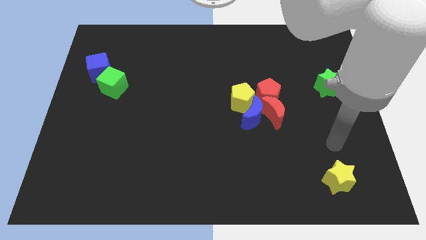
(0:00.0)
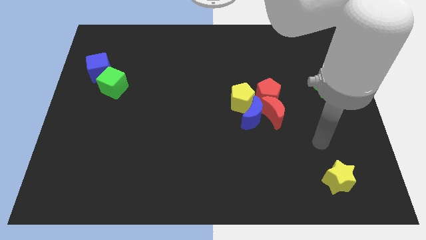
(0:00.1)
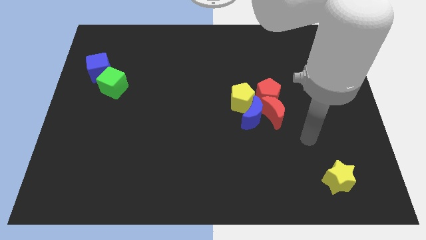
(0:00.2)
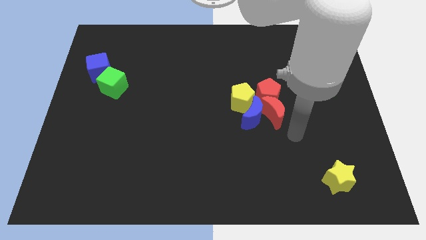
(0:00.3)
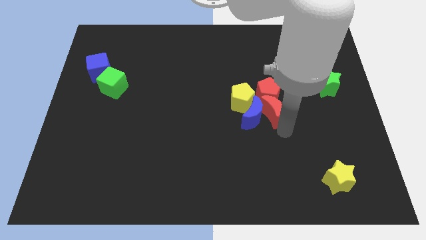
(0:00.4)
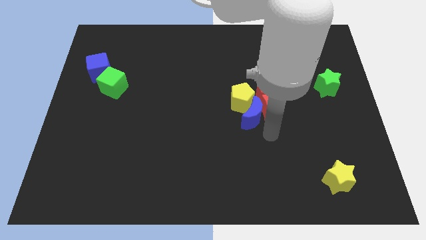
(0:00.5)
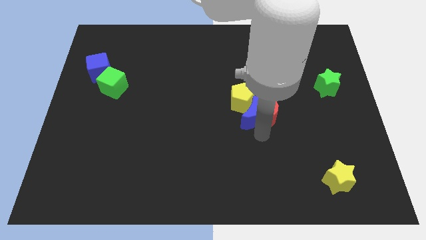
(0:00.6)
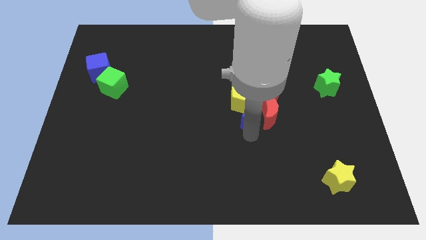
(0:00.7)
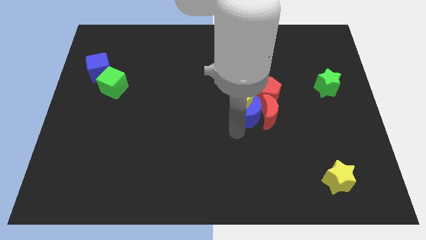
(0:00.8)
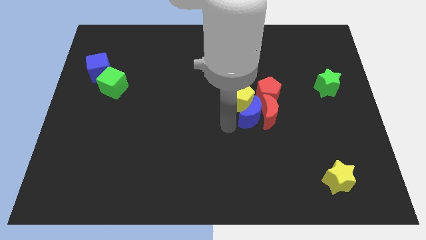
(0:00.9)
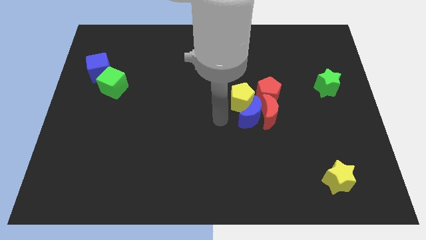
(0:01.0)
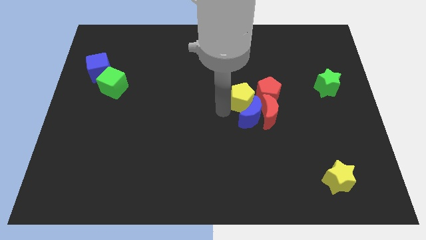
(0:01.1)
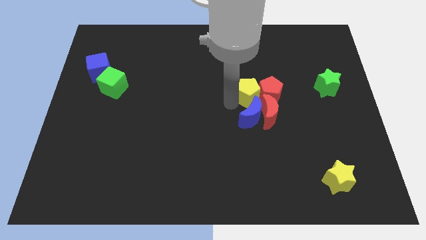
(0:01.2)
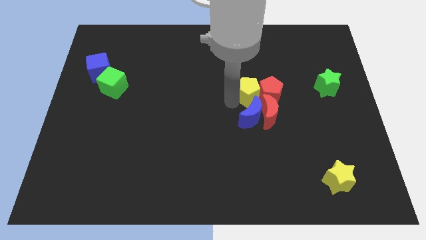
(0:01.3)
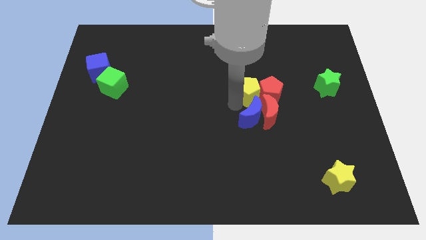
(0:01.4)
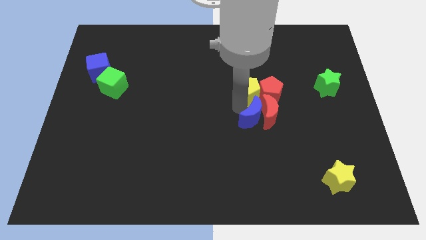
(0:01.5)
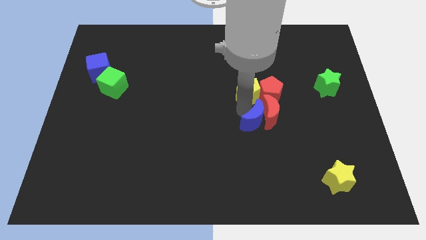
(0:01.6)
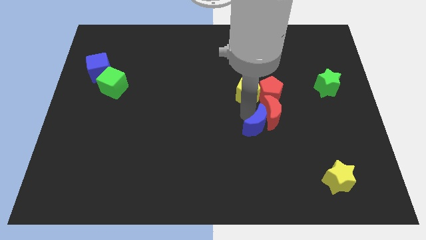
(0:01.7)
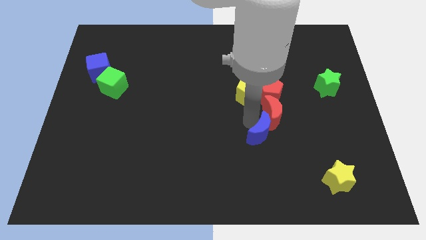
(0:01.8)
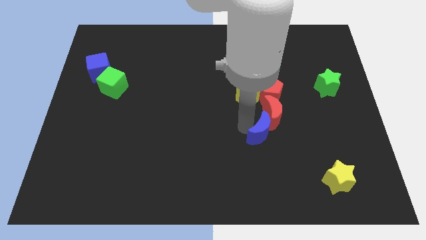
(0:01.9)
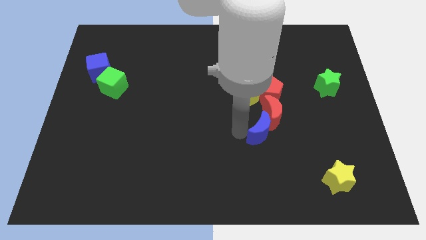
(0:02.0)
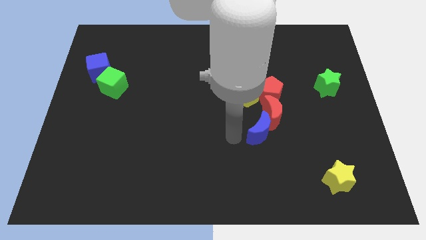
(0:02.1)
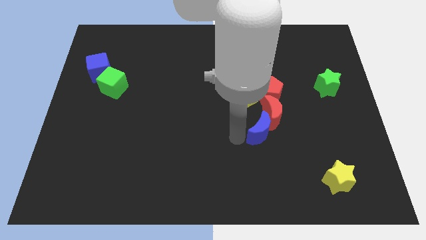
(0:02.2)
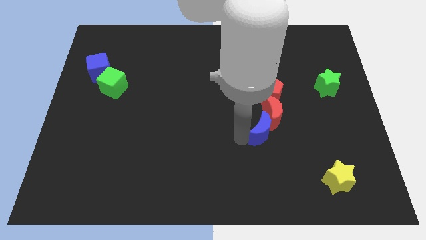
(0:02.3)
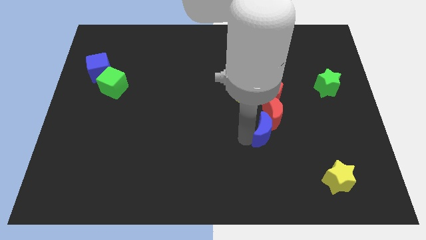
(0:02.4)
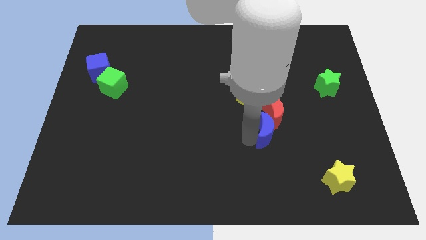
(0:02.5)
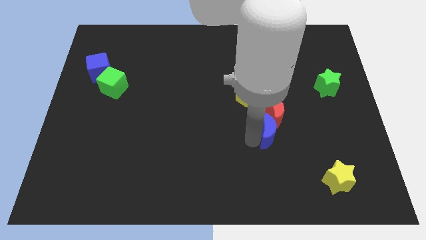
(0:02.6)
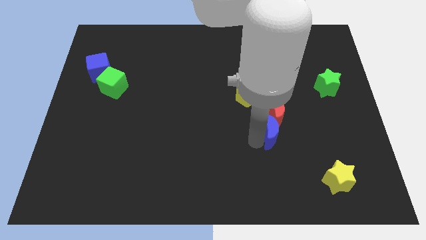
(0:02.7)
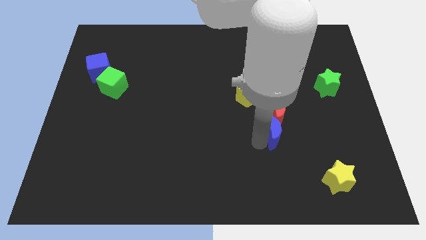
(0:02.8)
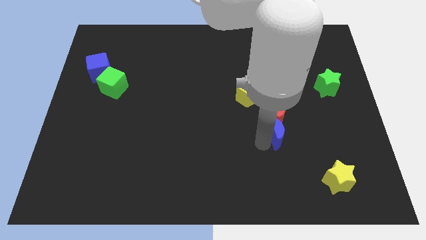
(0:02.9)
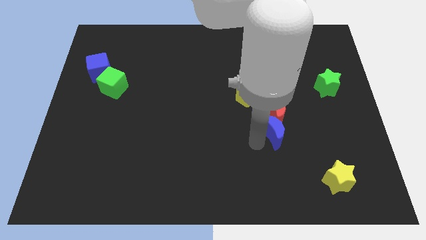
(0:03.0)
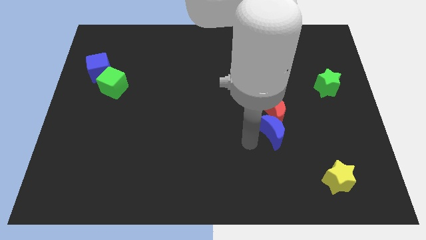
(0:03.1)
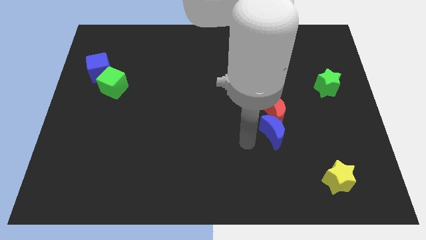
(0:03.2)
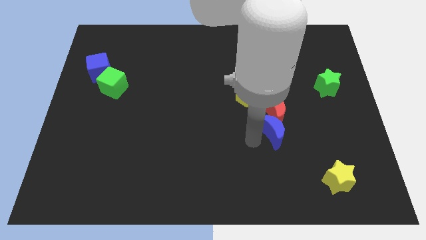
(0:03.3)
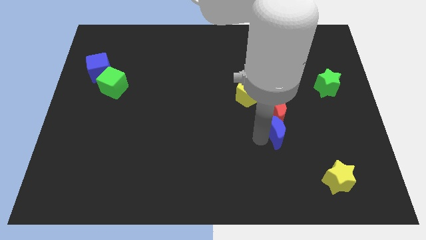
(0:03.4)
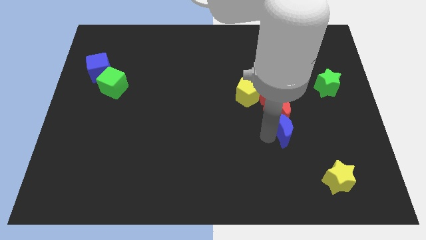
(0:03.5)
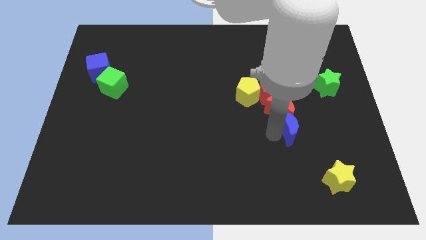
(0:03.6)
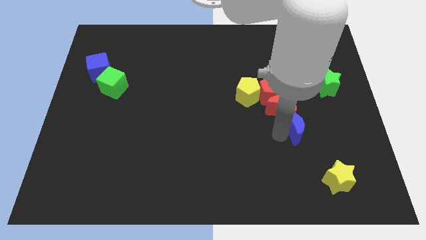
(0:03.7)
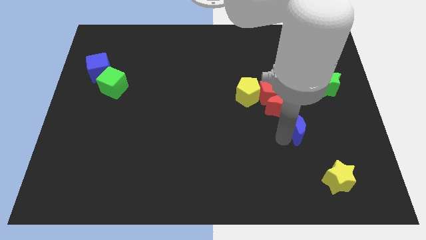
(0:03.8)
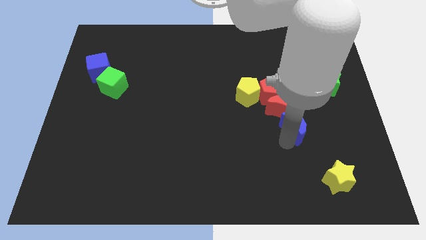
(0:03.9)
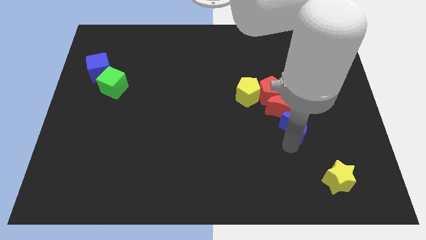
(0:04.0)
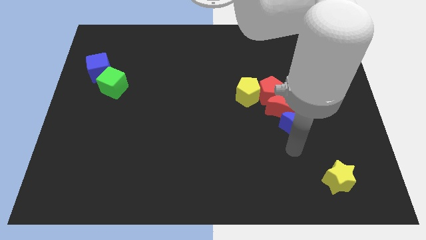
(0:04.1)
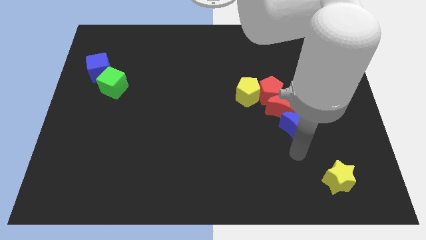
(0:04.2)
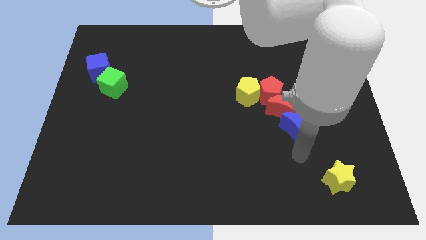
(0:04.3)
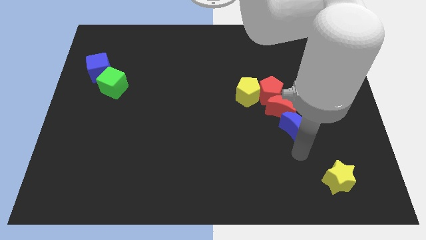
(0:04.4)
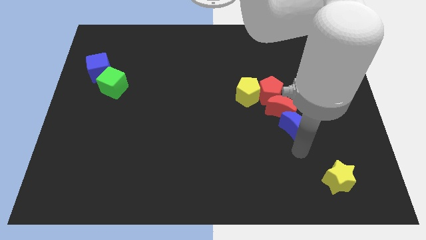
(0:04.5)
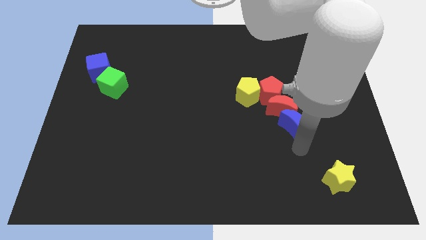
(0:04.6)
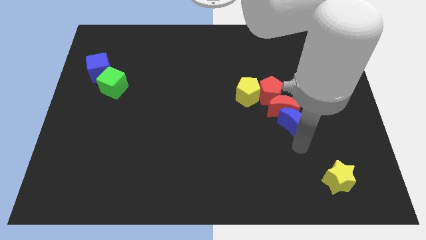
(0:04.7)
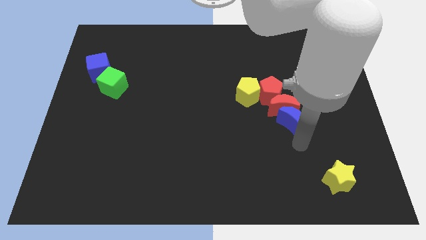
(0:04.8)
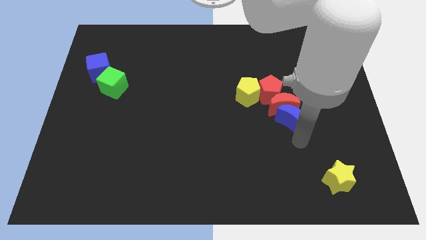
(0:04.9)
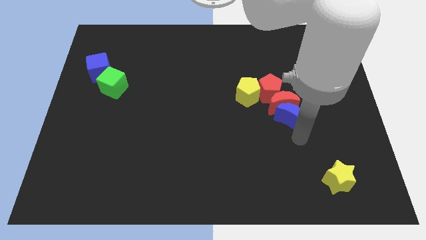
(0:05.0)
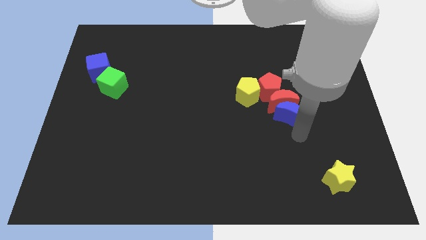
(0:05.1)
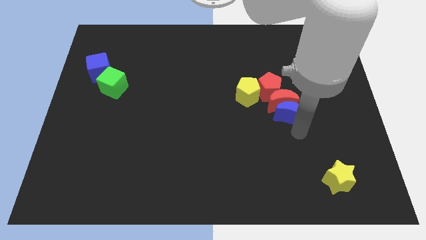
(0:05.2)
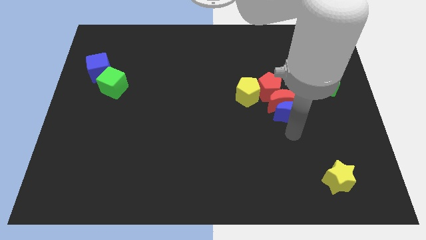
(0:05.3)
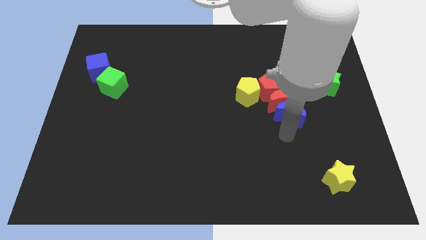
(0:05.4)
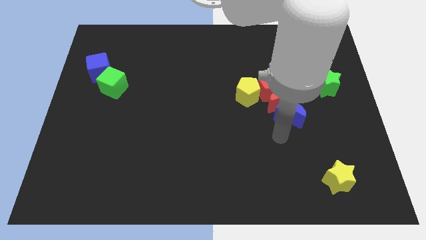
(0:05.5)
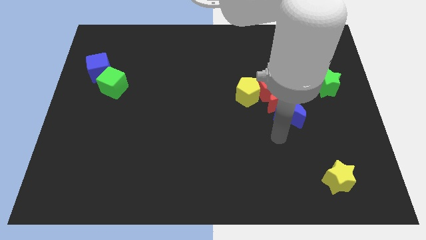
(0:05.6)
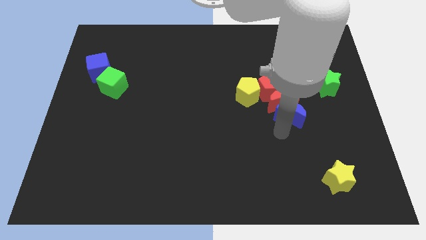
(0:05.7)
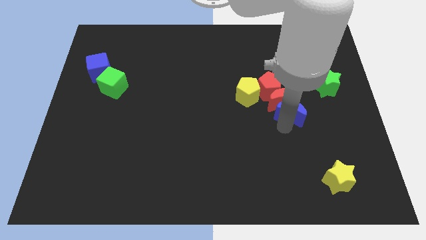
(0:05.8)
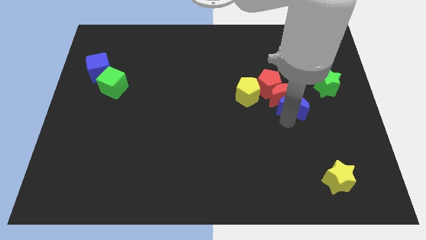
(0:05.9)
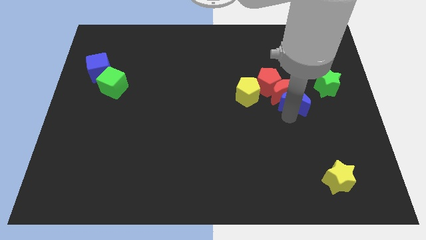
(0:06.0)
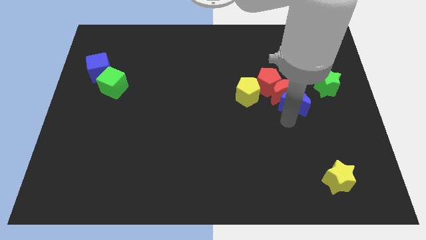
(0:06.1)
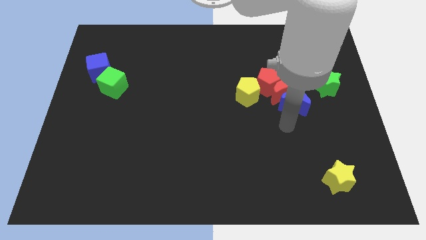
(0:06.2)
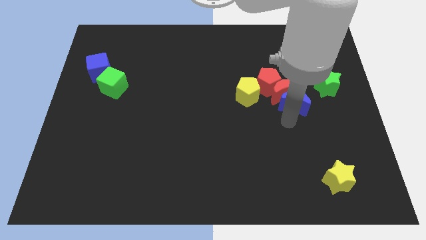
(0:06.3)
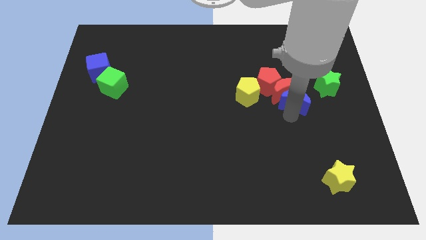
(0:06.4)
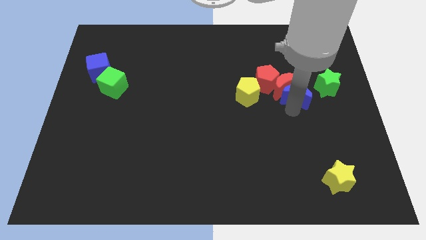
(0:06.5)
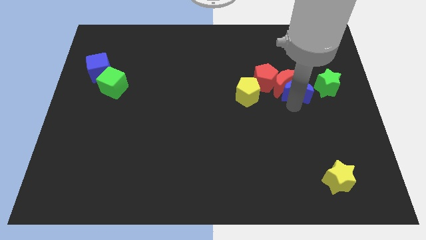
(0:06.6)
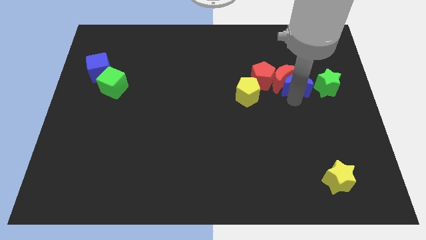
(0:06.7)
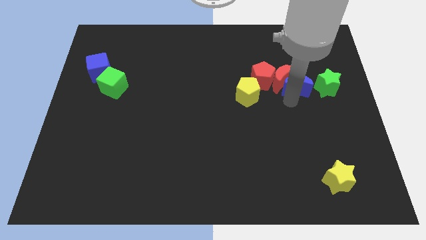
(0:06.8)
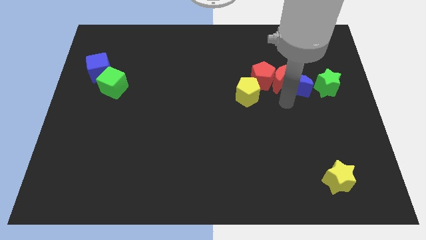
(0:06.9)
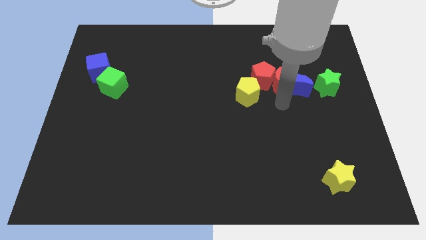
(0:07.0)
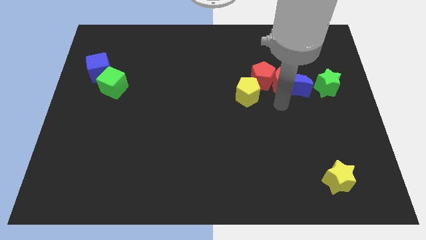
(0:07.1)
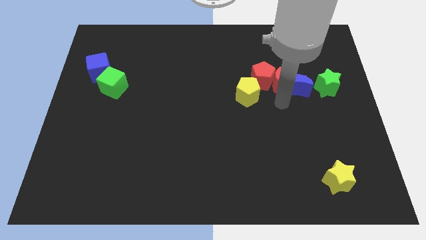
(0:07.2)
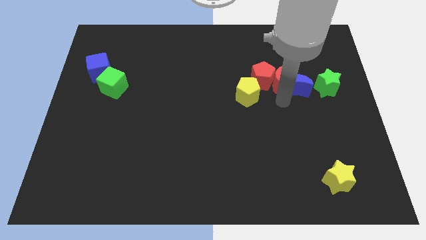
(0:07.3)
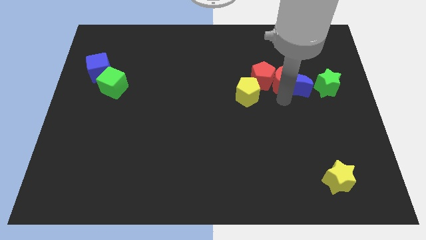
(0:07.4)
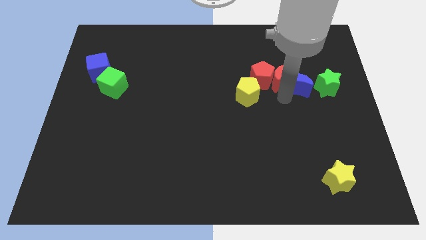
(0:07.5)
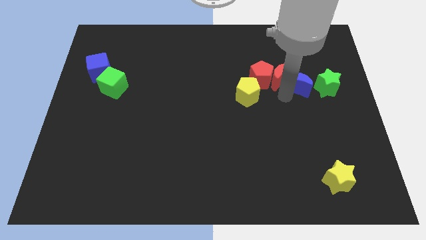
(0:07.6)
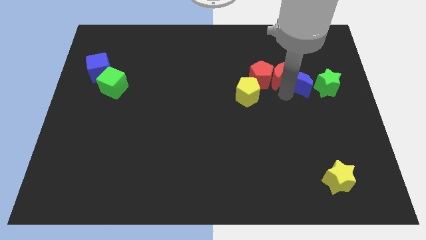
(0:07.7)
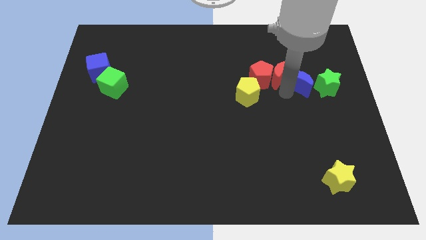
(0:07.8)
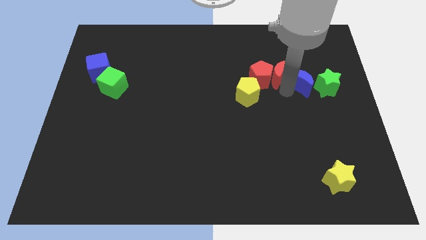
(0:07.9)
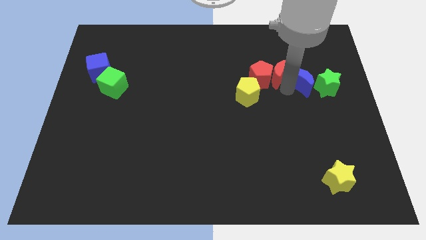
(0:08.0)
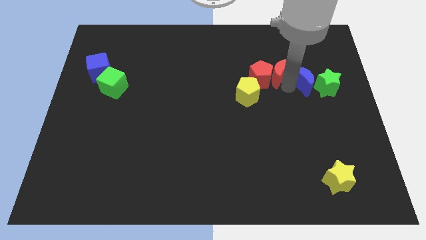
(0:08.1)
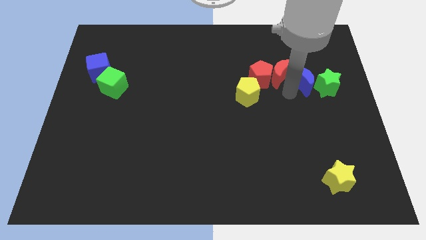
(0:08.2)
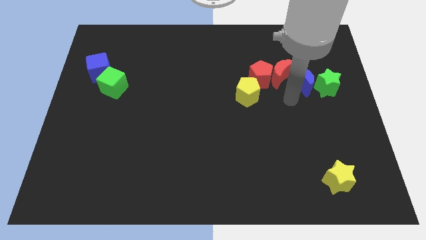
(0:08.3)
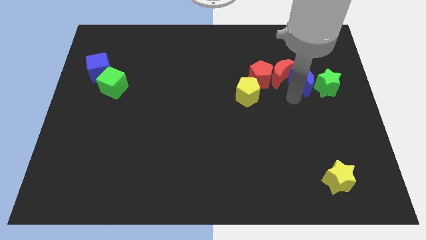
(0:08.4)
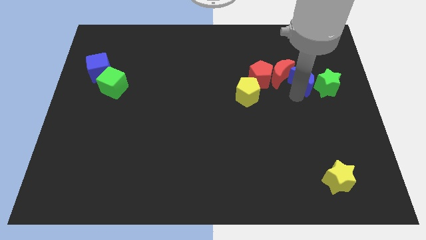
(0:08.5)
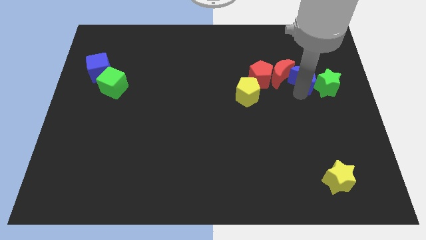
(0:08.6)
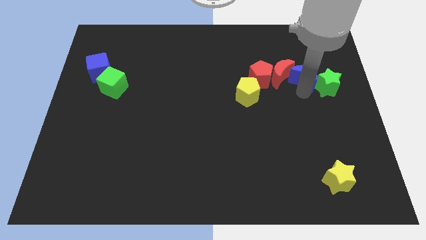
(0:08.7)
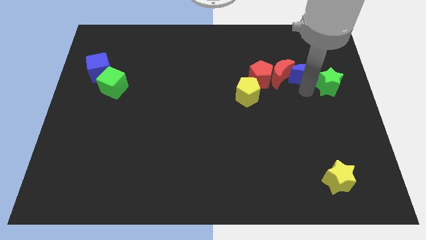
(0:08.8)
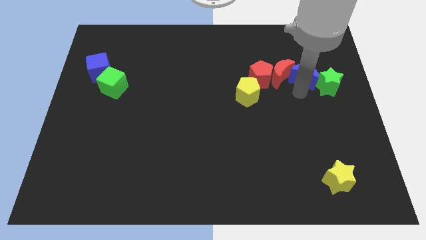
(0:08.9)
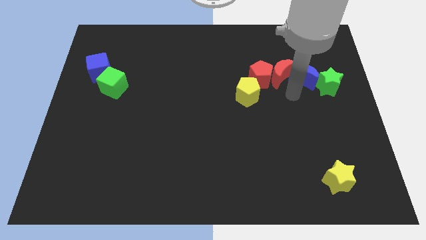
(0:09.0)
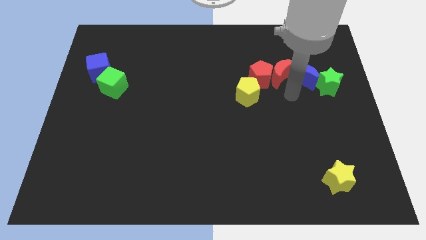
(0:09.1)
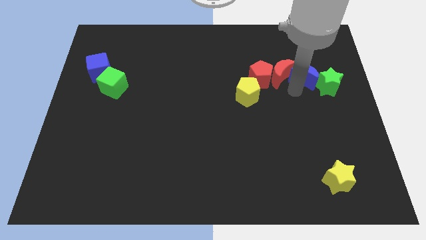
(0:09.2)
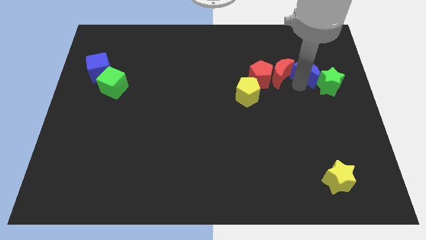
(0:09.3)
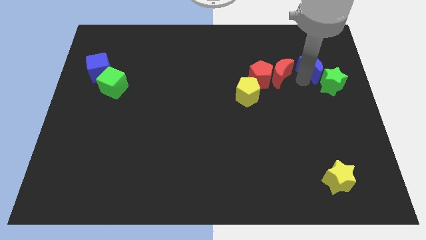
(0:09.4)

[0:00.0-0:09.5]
move the blue moon to the top of the green star
